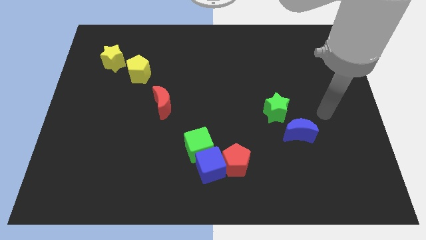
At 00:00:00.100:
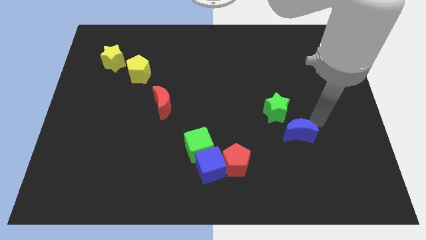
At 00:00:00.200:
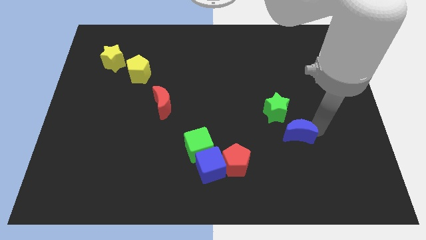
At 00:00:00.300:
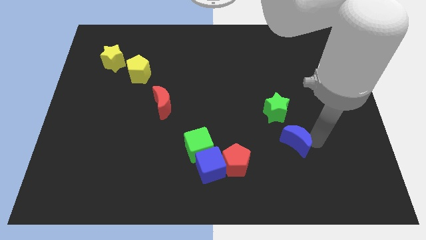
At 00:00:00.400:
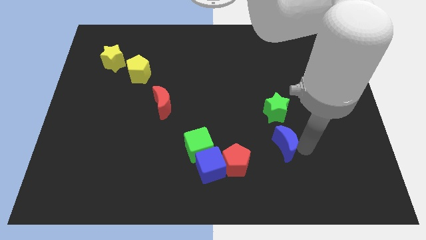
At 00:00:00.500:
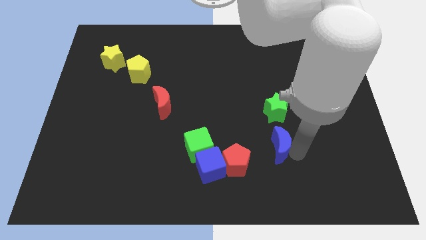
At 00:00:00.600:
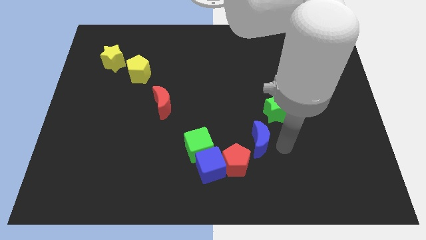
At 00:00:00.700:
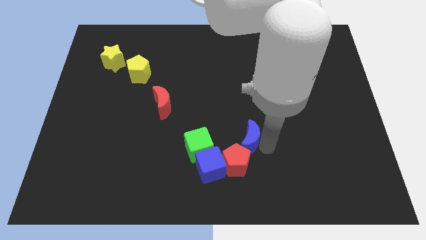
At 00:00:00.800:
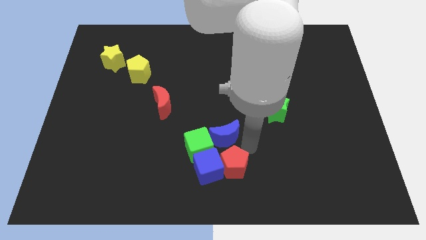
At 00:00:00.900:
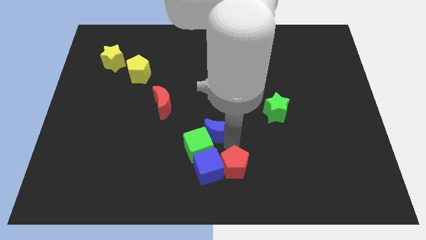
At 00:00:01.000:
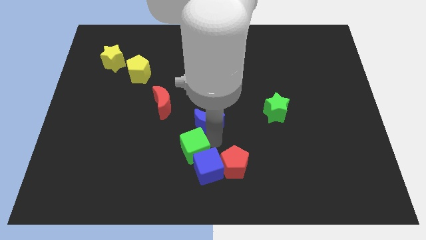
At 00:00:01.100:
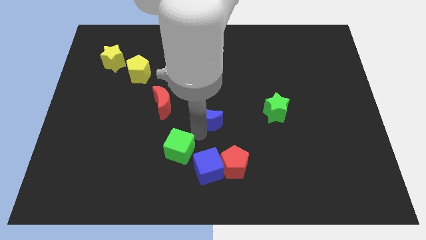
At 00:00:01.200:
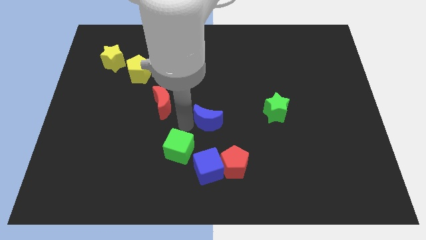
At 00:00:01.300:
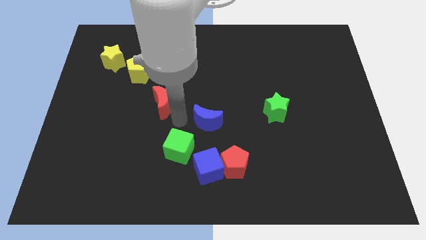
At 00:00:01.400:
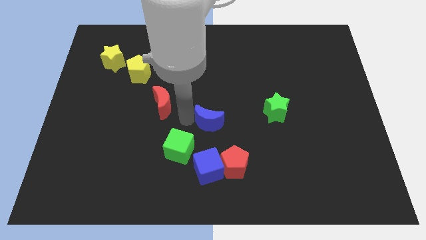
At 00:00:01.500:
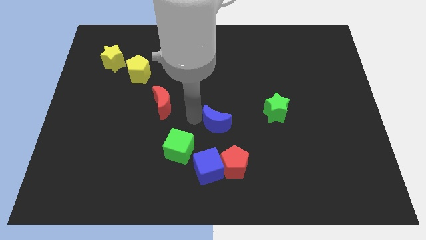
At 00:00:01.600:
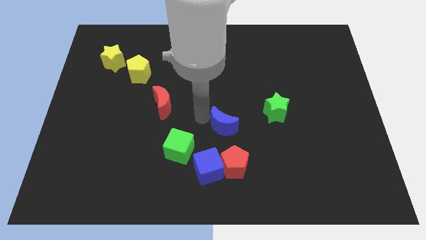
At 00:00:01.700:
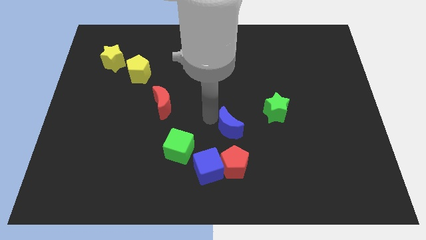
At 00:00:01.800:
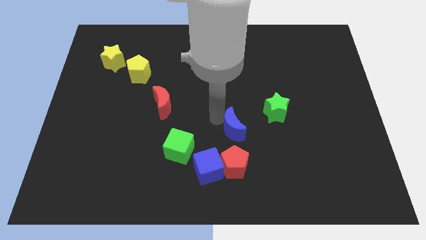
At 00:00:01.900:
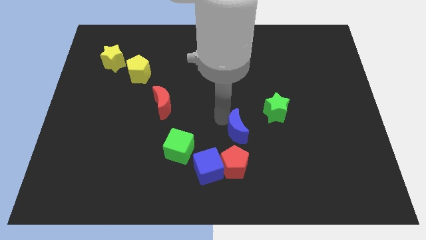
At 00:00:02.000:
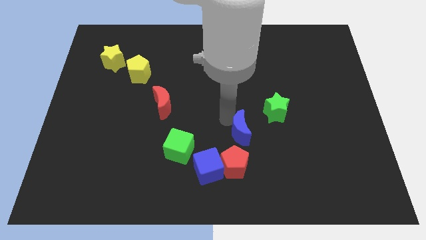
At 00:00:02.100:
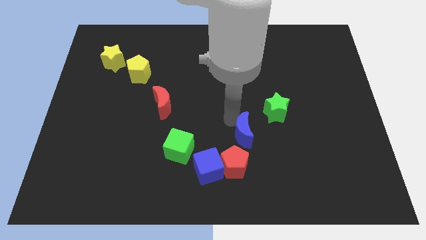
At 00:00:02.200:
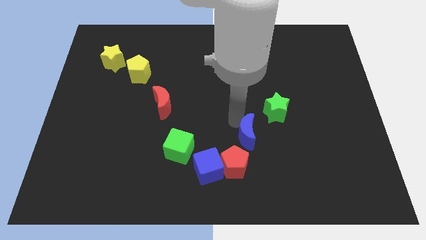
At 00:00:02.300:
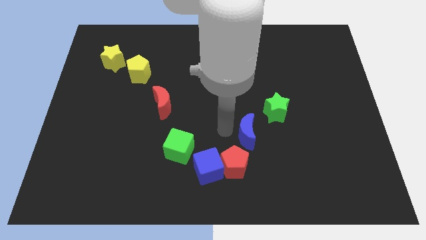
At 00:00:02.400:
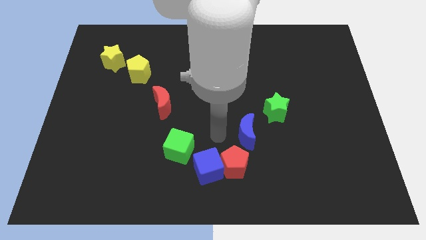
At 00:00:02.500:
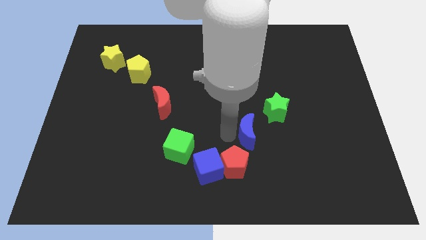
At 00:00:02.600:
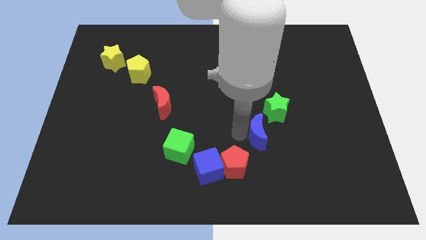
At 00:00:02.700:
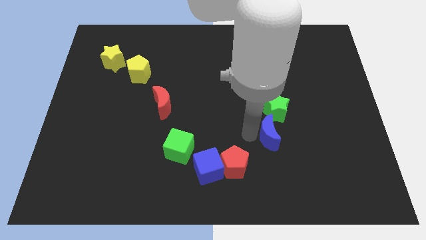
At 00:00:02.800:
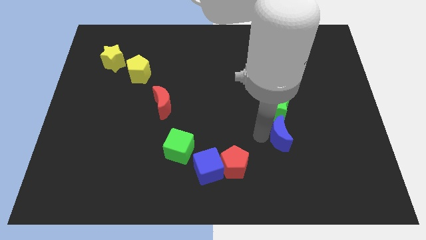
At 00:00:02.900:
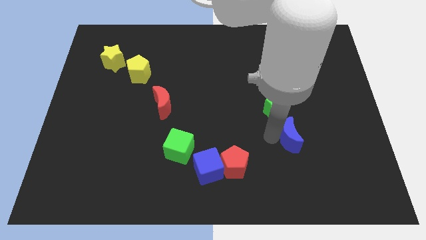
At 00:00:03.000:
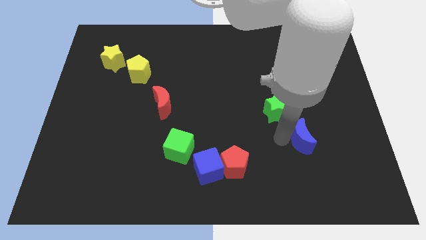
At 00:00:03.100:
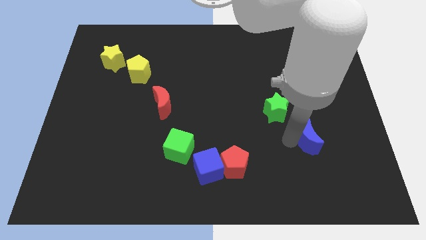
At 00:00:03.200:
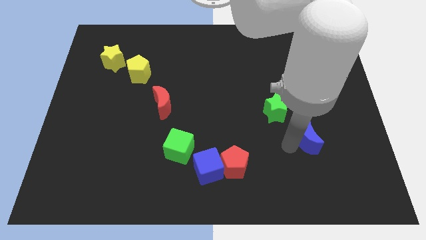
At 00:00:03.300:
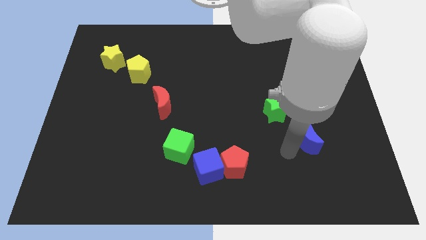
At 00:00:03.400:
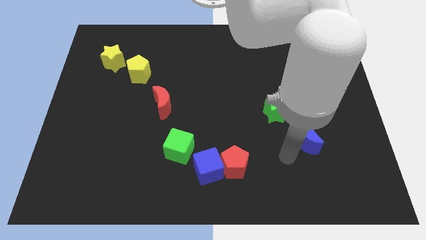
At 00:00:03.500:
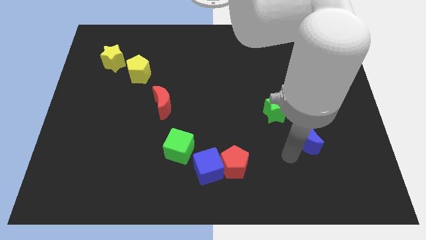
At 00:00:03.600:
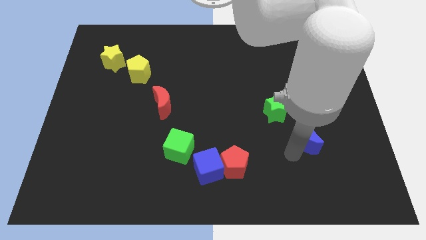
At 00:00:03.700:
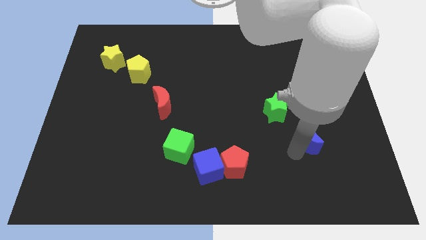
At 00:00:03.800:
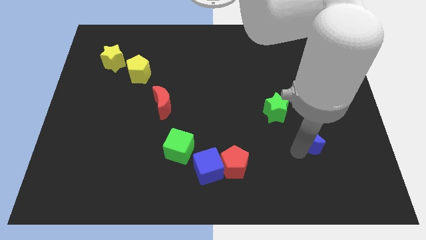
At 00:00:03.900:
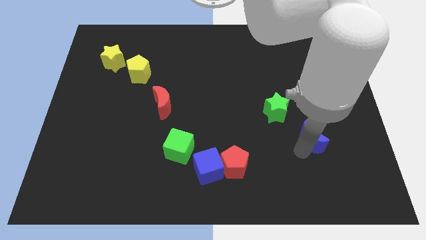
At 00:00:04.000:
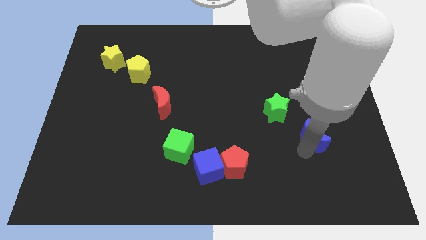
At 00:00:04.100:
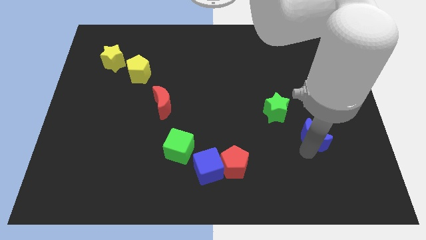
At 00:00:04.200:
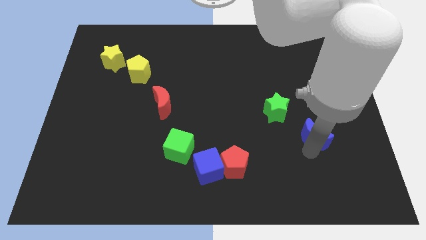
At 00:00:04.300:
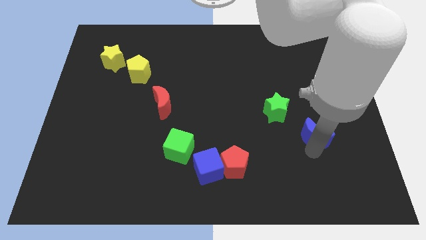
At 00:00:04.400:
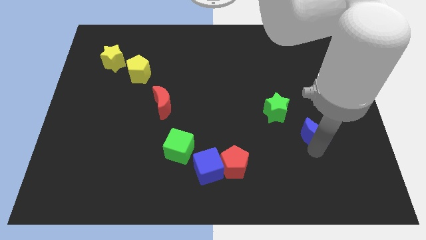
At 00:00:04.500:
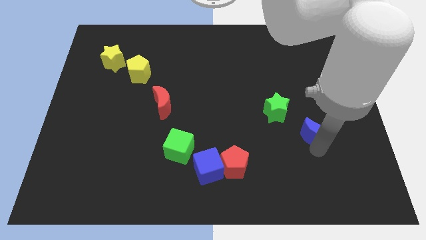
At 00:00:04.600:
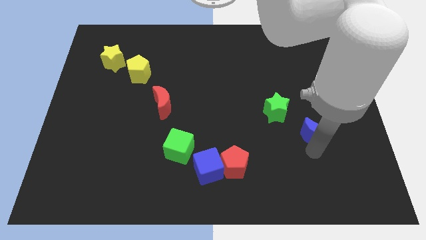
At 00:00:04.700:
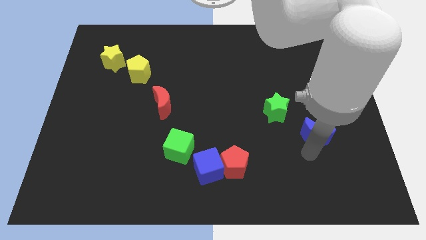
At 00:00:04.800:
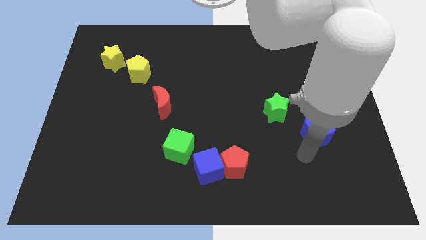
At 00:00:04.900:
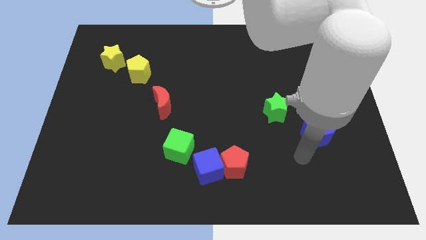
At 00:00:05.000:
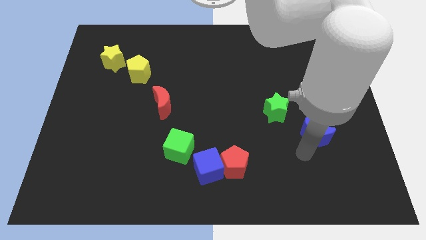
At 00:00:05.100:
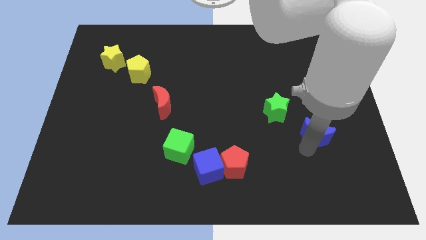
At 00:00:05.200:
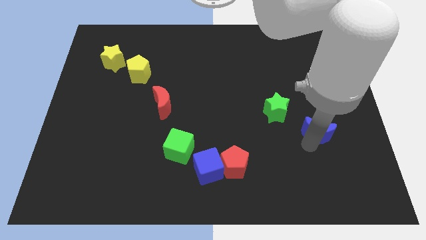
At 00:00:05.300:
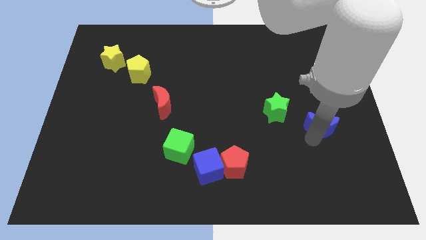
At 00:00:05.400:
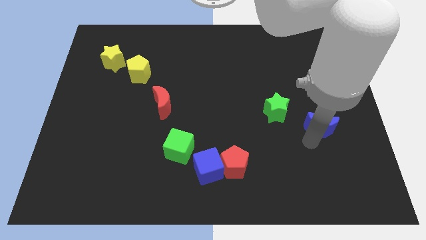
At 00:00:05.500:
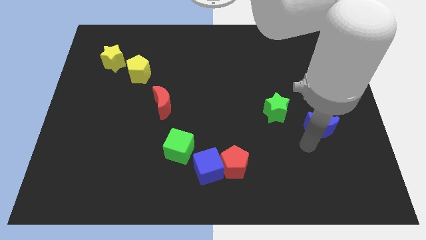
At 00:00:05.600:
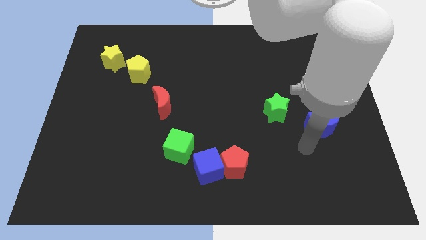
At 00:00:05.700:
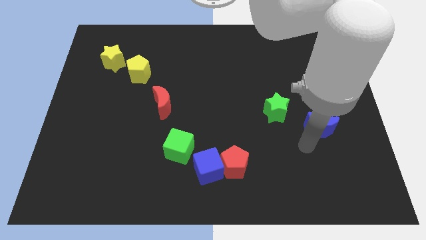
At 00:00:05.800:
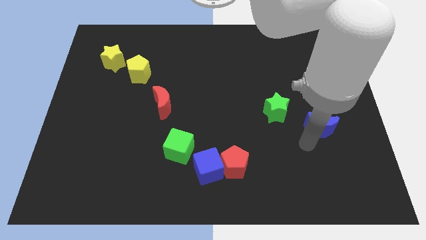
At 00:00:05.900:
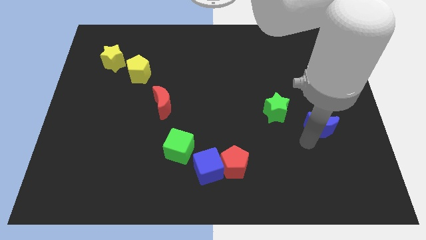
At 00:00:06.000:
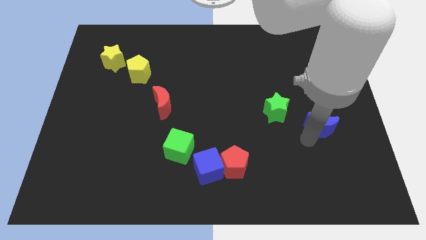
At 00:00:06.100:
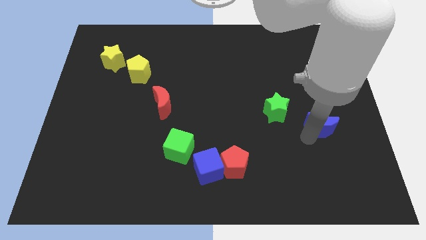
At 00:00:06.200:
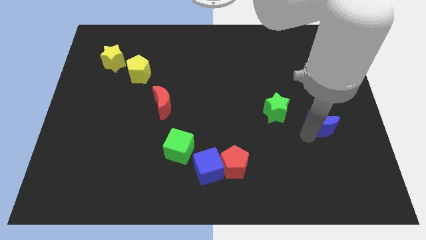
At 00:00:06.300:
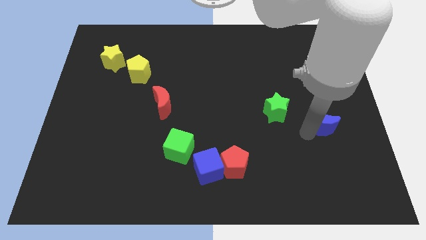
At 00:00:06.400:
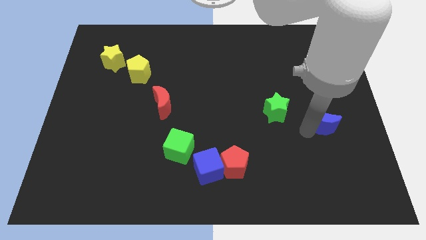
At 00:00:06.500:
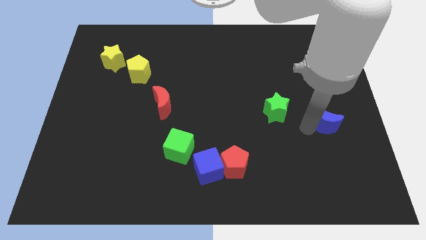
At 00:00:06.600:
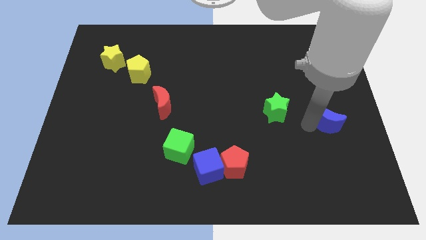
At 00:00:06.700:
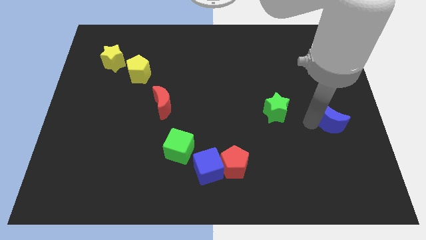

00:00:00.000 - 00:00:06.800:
slide the blue moon to the center right
